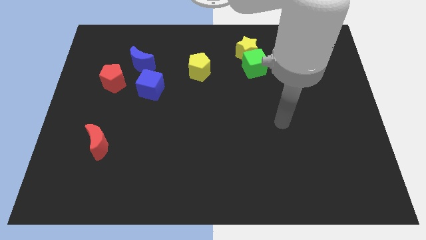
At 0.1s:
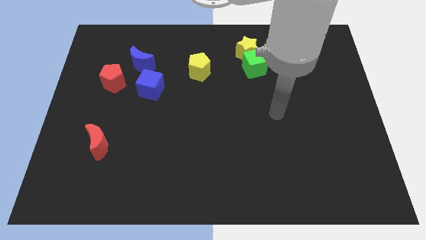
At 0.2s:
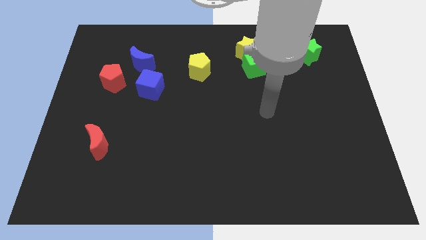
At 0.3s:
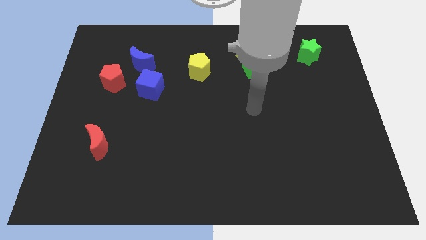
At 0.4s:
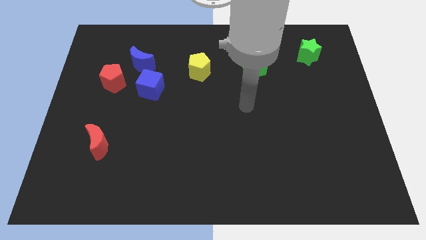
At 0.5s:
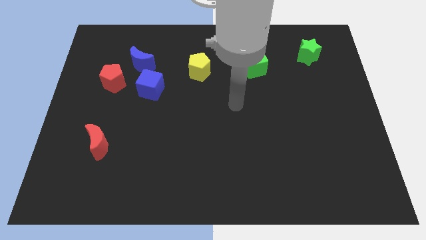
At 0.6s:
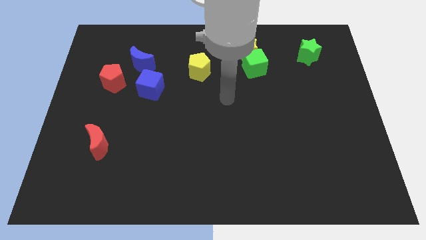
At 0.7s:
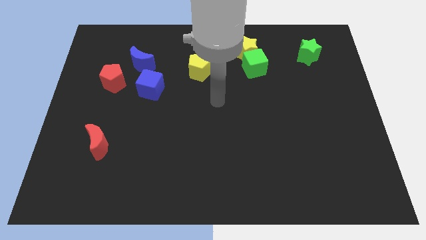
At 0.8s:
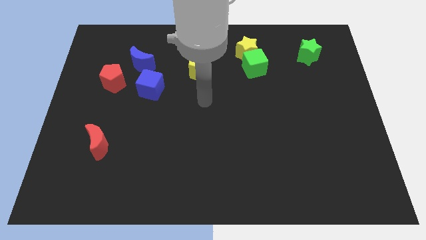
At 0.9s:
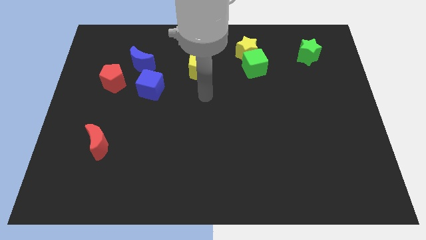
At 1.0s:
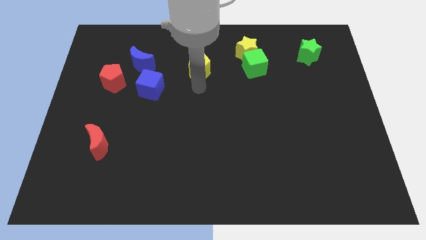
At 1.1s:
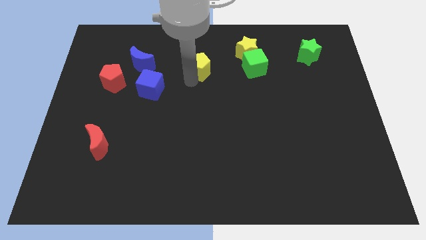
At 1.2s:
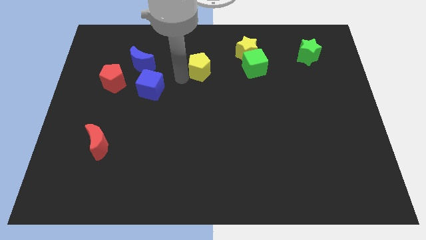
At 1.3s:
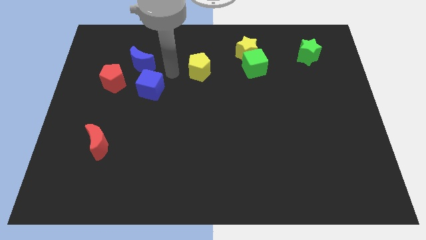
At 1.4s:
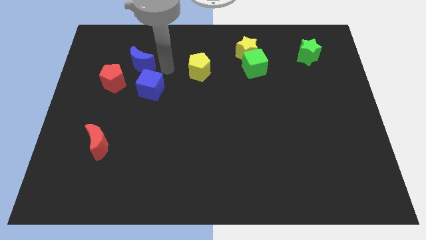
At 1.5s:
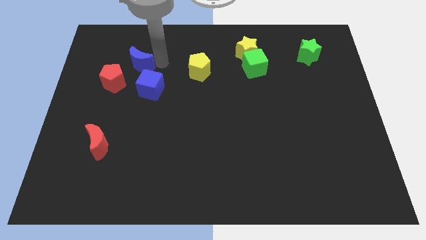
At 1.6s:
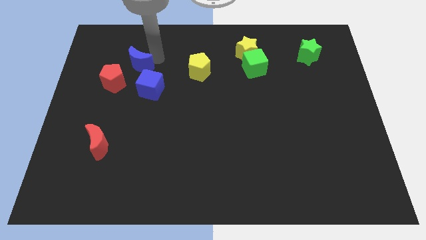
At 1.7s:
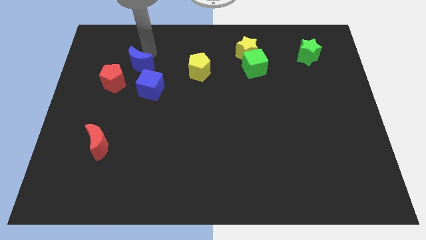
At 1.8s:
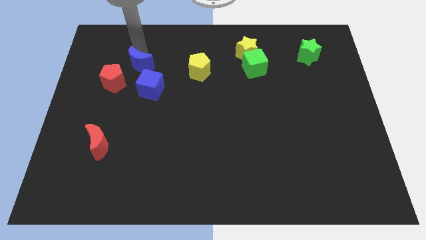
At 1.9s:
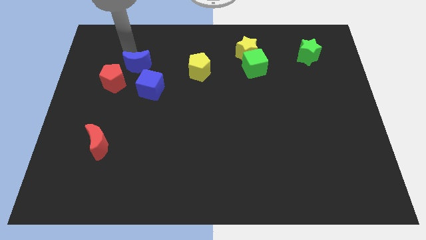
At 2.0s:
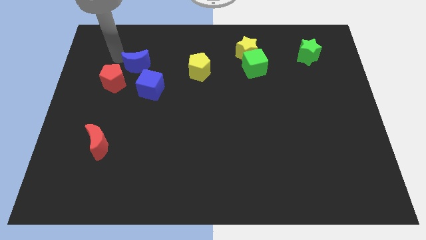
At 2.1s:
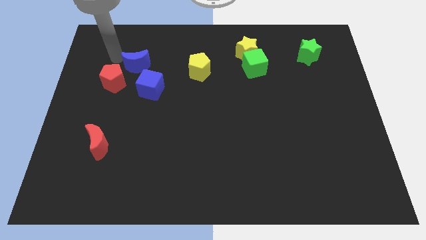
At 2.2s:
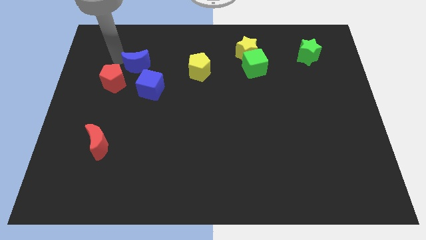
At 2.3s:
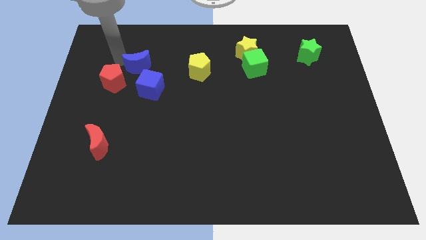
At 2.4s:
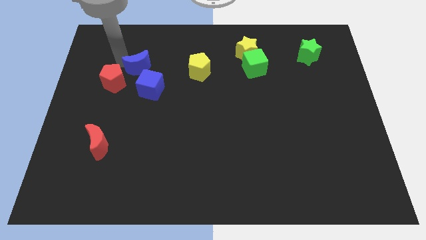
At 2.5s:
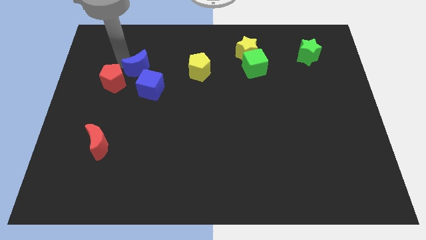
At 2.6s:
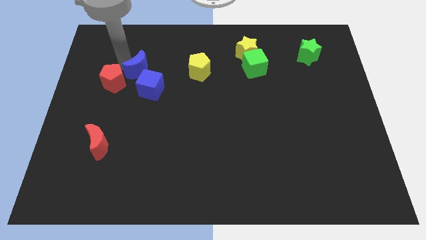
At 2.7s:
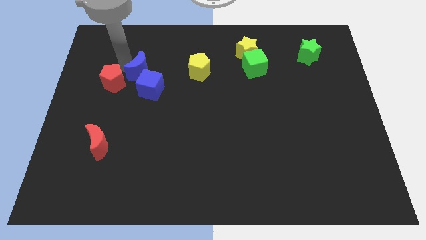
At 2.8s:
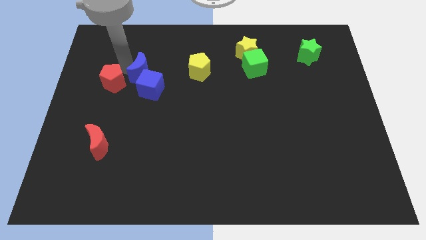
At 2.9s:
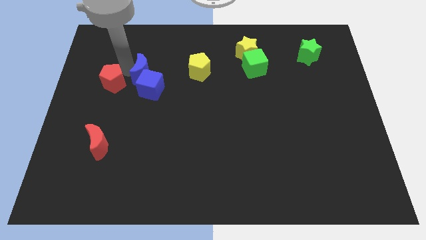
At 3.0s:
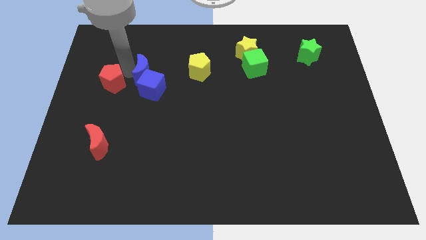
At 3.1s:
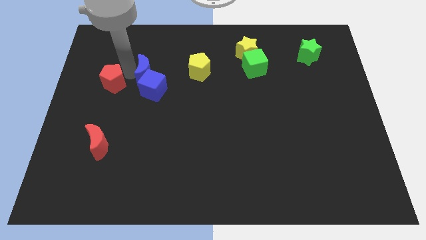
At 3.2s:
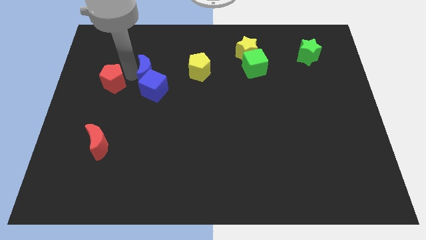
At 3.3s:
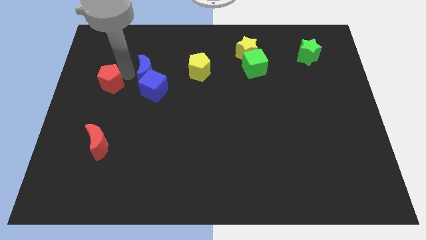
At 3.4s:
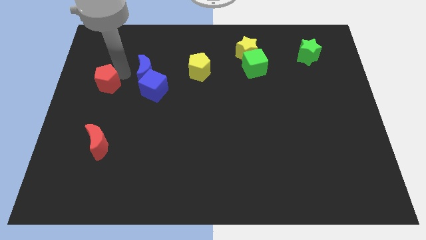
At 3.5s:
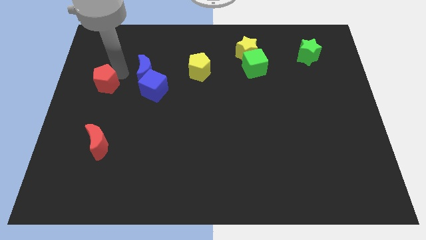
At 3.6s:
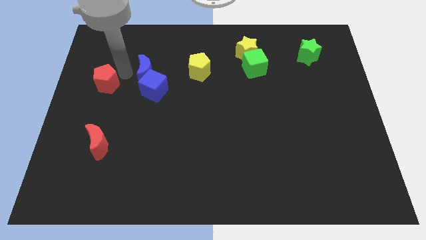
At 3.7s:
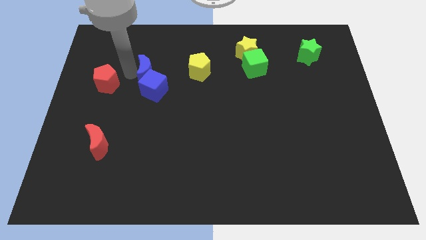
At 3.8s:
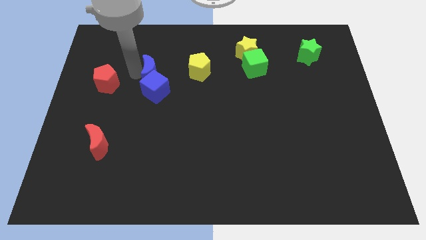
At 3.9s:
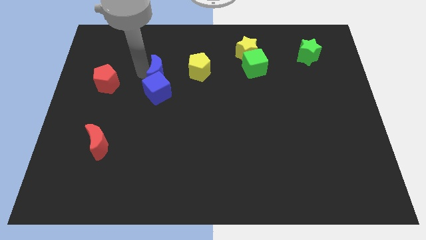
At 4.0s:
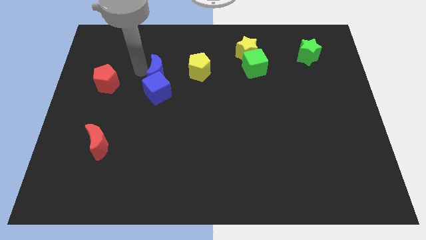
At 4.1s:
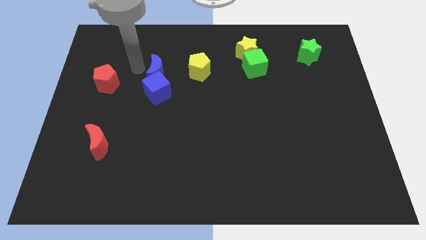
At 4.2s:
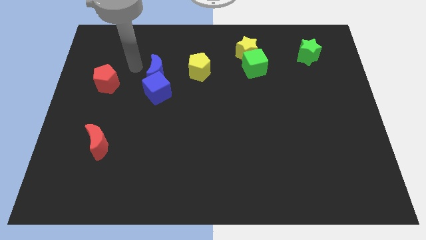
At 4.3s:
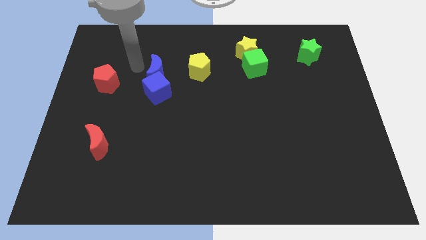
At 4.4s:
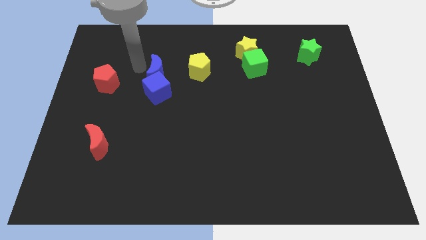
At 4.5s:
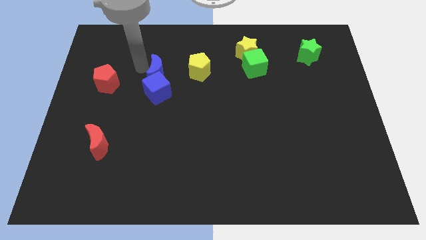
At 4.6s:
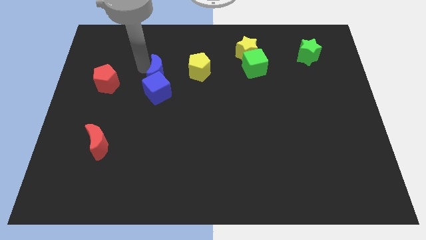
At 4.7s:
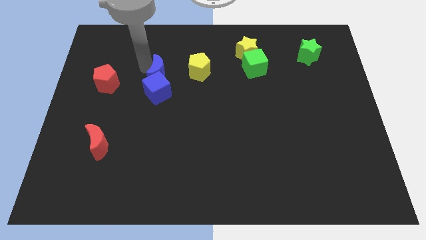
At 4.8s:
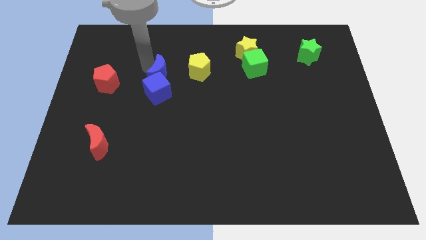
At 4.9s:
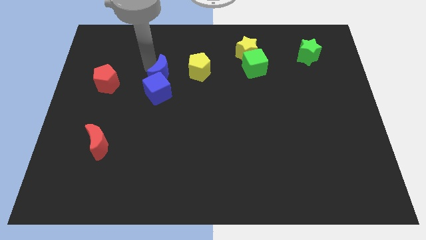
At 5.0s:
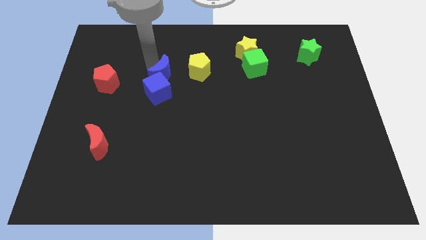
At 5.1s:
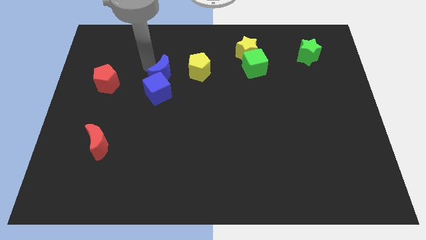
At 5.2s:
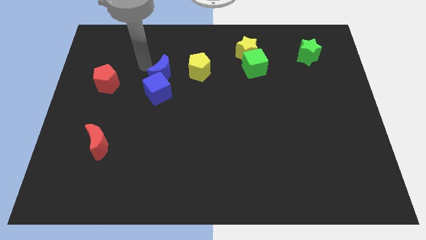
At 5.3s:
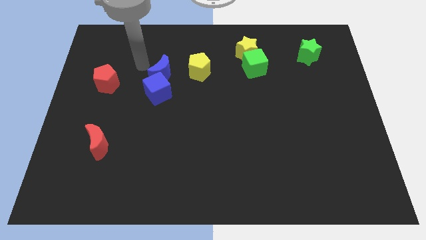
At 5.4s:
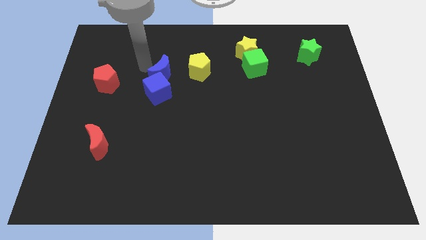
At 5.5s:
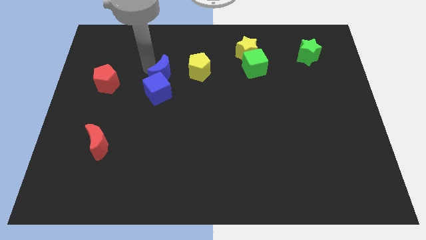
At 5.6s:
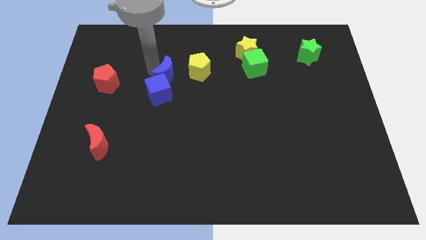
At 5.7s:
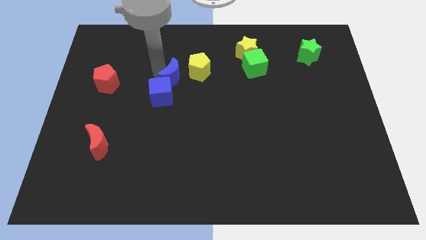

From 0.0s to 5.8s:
put the blue moon to the center of the board

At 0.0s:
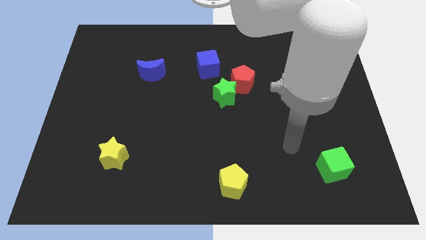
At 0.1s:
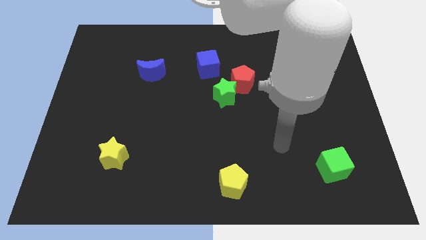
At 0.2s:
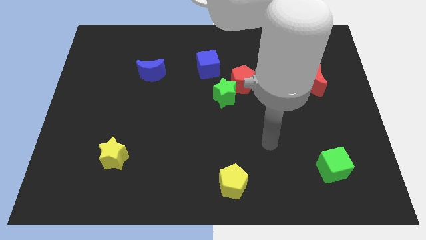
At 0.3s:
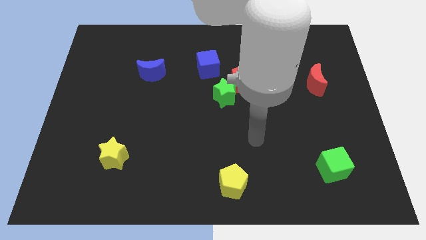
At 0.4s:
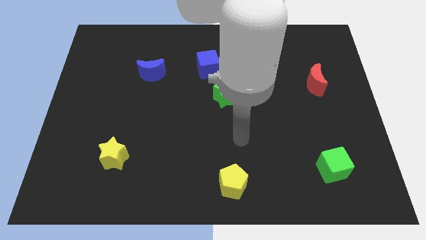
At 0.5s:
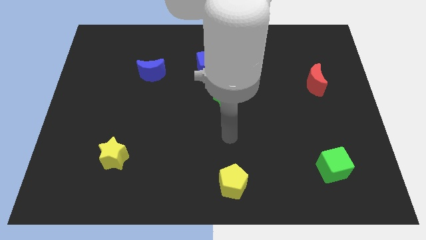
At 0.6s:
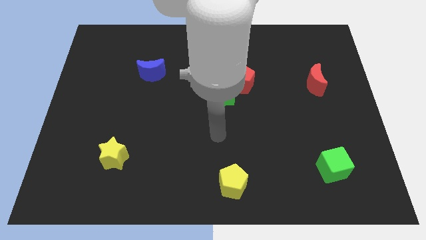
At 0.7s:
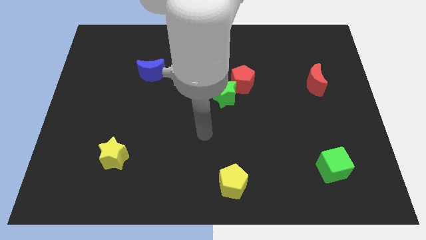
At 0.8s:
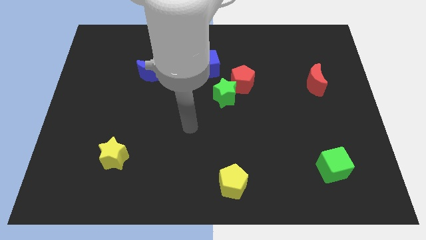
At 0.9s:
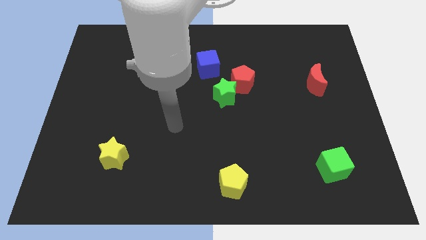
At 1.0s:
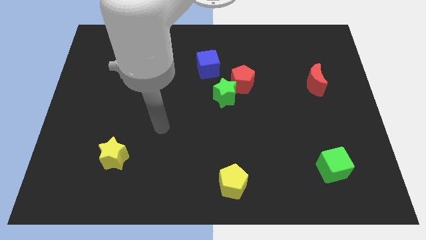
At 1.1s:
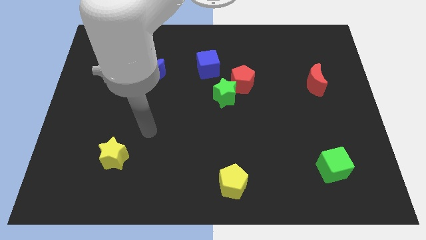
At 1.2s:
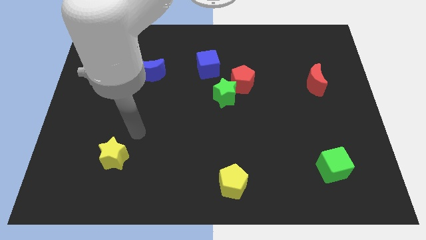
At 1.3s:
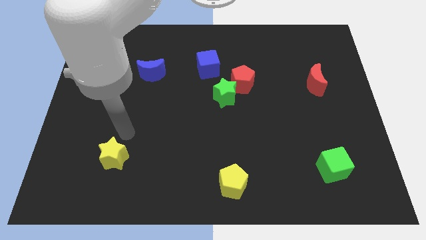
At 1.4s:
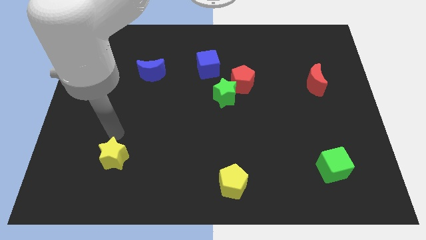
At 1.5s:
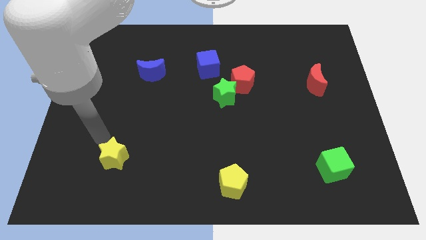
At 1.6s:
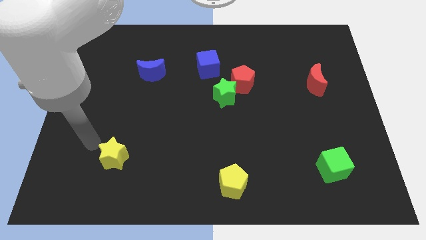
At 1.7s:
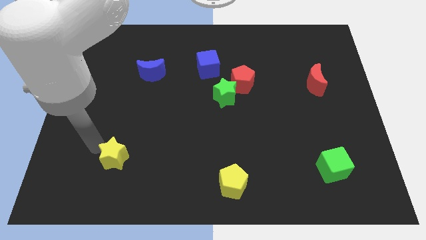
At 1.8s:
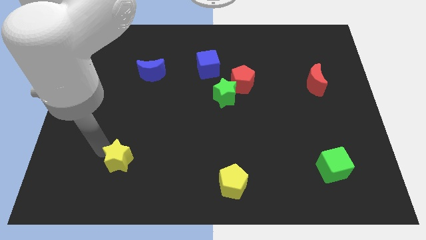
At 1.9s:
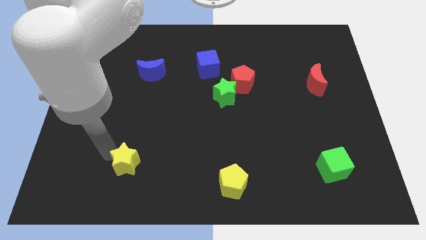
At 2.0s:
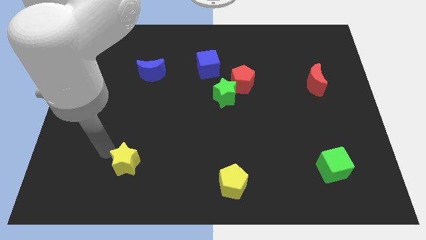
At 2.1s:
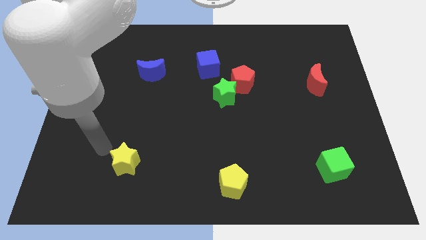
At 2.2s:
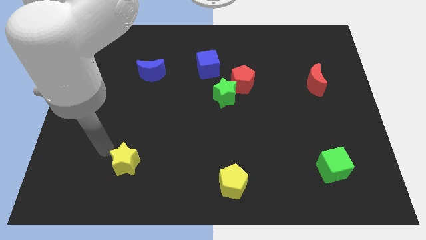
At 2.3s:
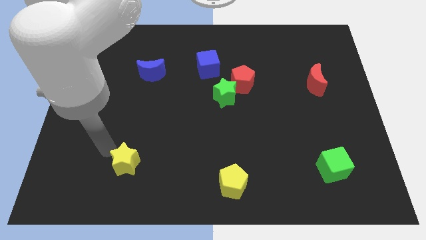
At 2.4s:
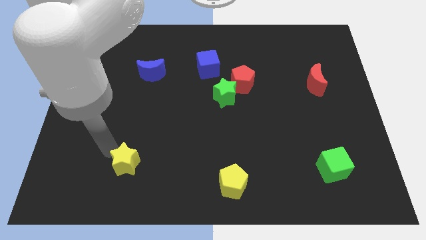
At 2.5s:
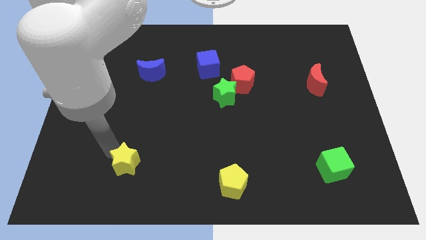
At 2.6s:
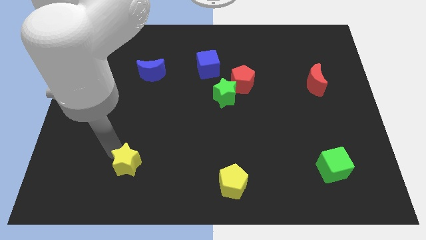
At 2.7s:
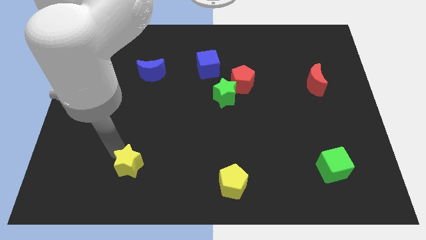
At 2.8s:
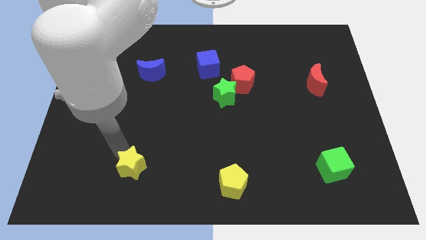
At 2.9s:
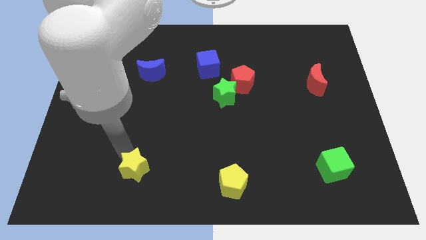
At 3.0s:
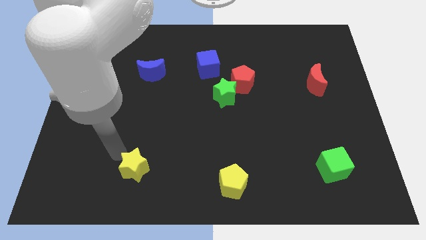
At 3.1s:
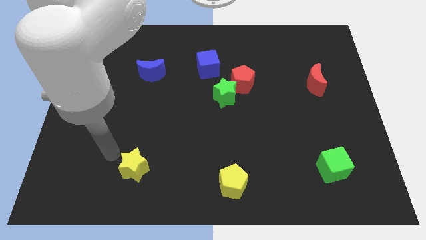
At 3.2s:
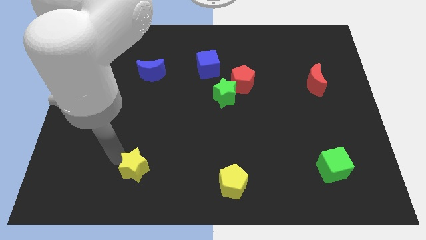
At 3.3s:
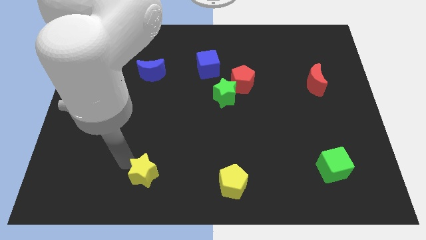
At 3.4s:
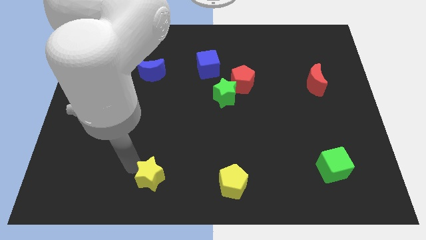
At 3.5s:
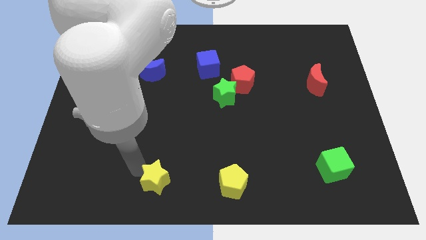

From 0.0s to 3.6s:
slide the yellow star to the bottom side
